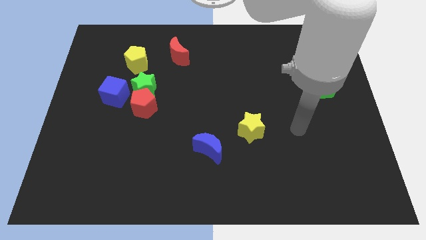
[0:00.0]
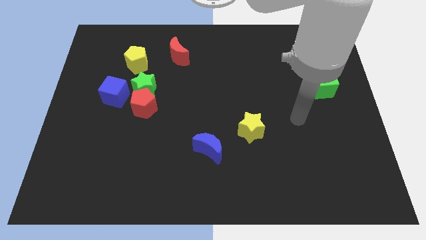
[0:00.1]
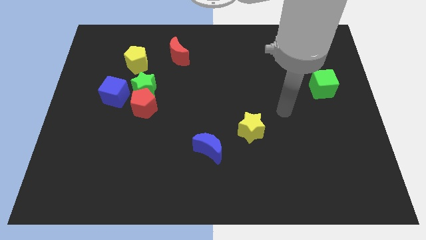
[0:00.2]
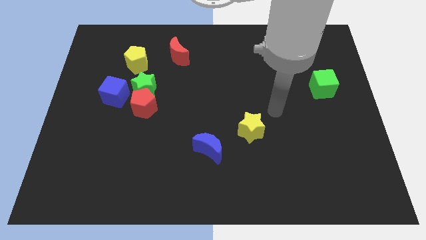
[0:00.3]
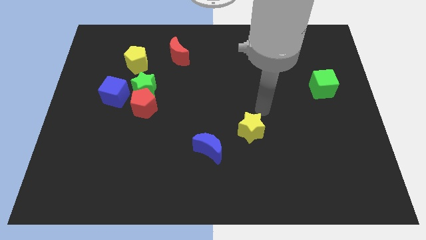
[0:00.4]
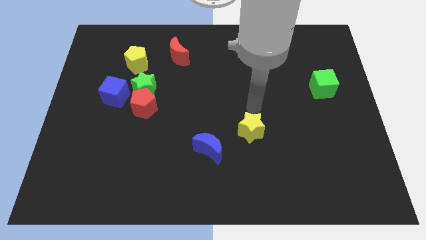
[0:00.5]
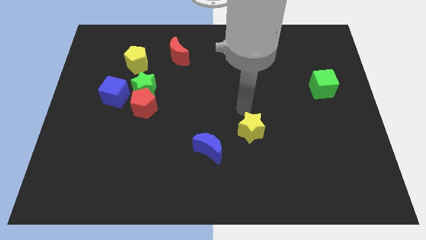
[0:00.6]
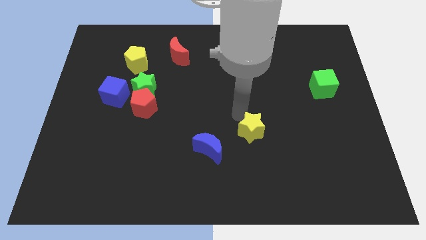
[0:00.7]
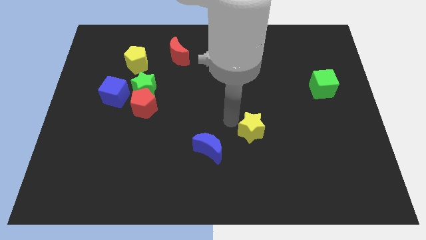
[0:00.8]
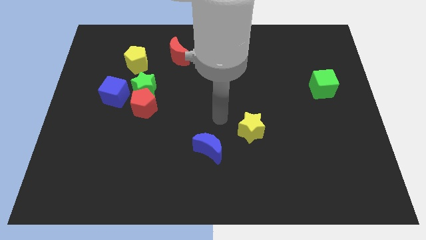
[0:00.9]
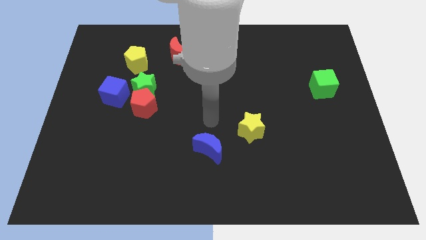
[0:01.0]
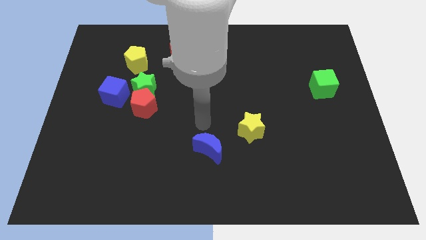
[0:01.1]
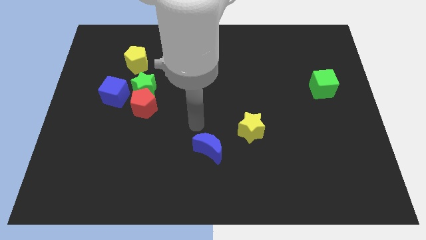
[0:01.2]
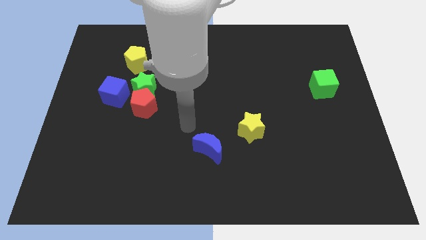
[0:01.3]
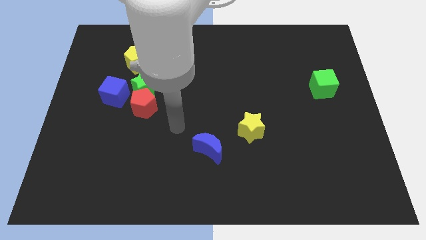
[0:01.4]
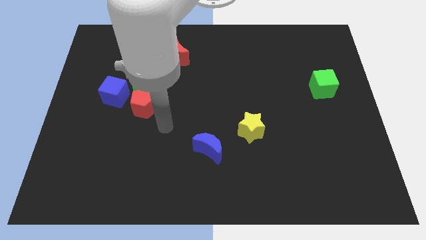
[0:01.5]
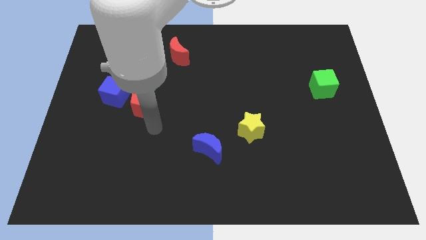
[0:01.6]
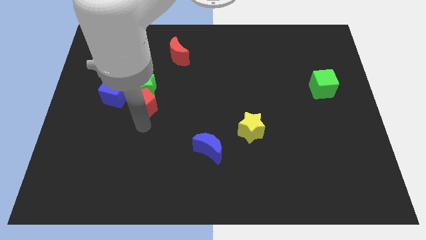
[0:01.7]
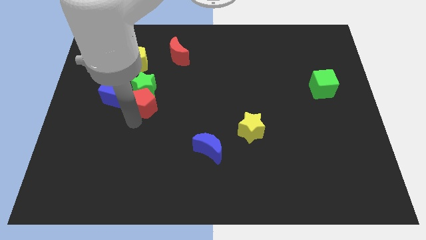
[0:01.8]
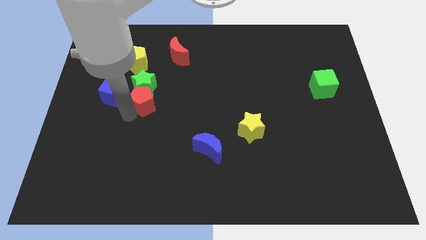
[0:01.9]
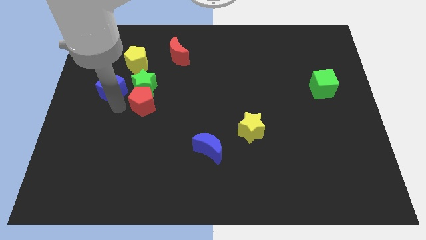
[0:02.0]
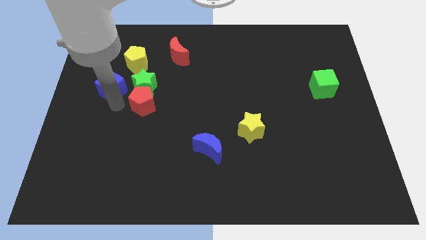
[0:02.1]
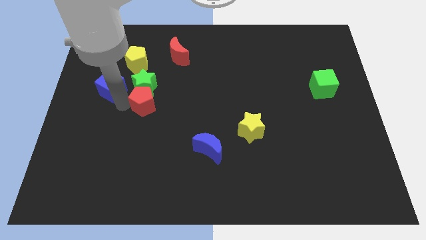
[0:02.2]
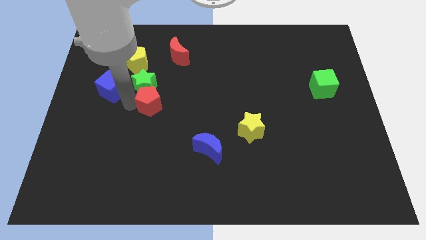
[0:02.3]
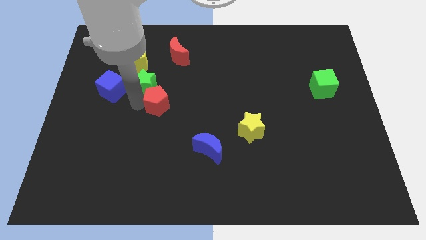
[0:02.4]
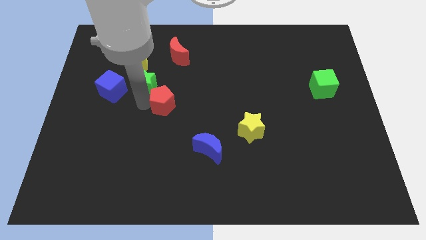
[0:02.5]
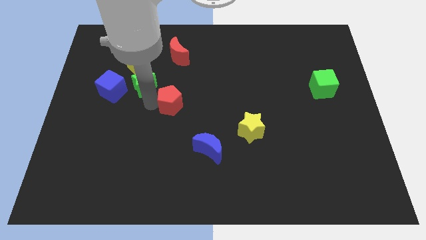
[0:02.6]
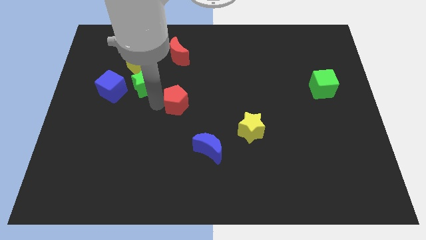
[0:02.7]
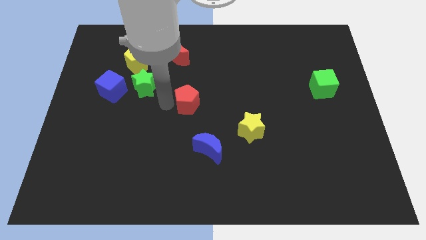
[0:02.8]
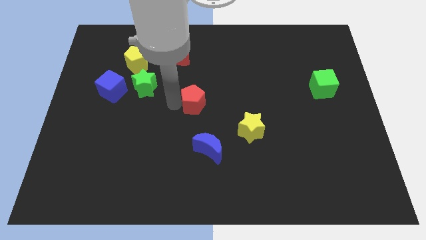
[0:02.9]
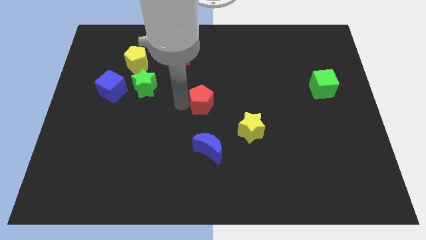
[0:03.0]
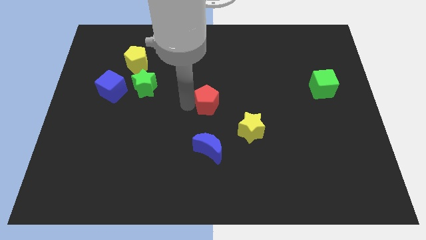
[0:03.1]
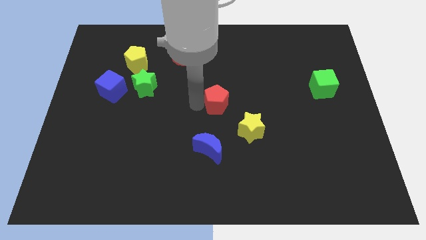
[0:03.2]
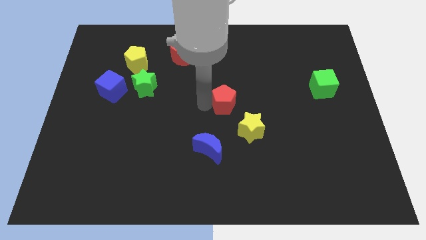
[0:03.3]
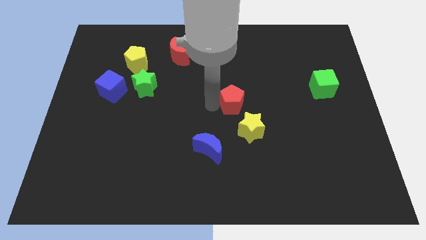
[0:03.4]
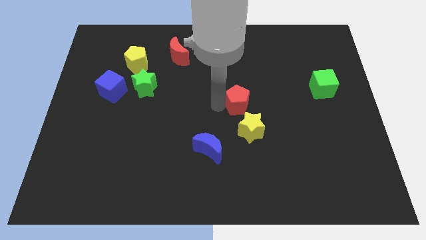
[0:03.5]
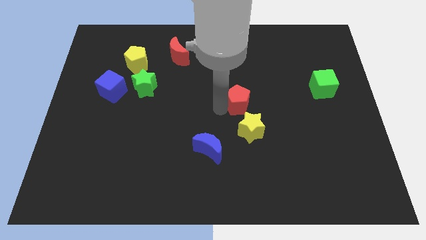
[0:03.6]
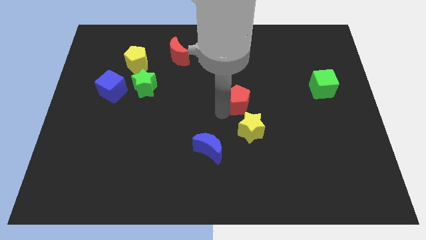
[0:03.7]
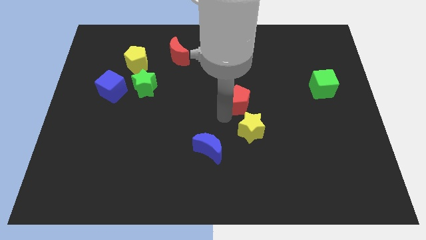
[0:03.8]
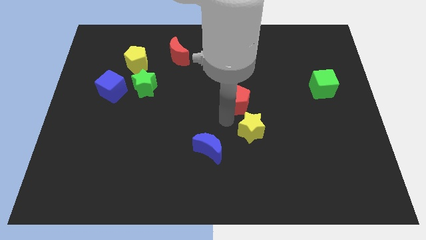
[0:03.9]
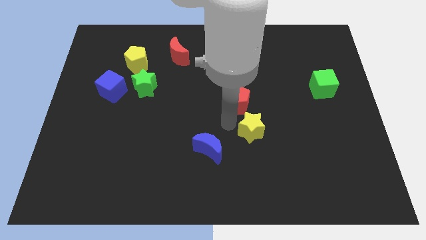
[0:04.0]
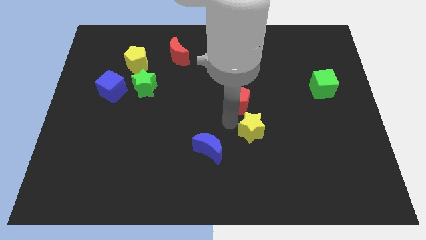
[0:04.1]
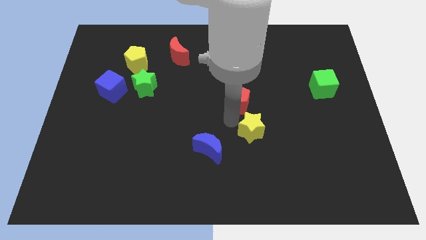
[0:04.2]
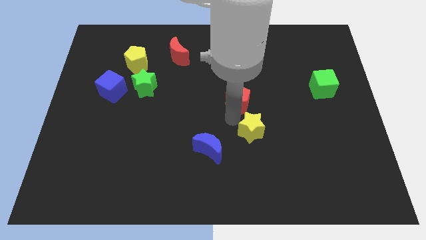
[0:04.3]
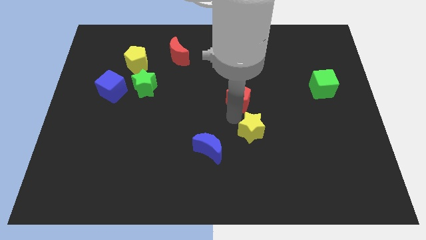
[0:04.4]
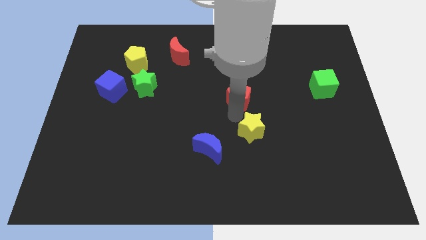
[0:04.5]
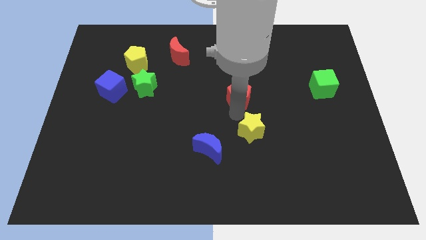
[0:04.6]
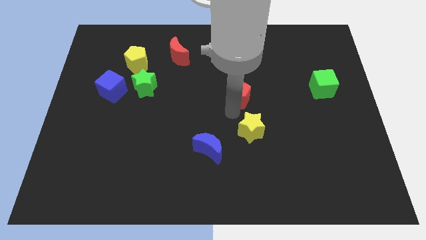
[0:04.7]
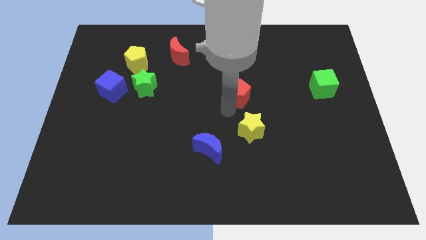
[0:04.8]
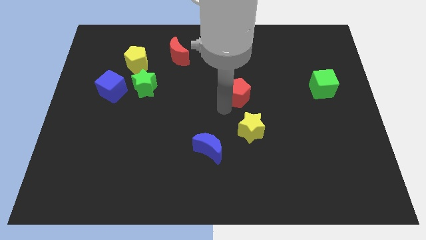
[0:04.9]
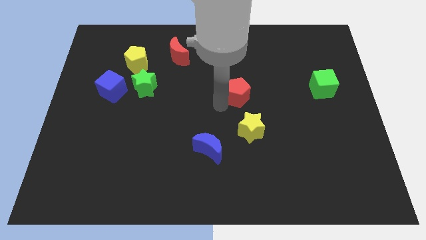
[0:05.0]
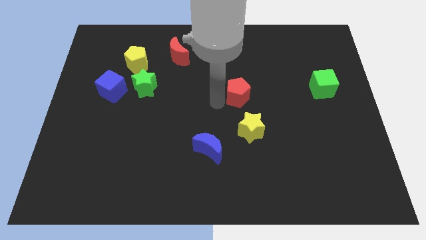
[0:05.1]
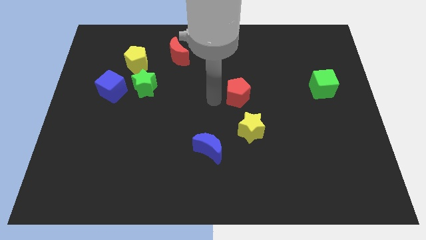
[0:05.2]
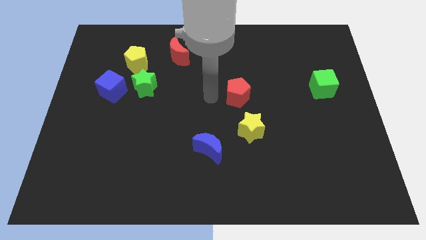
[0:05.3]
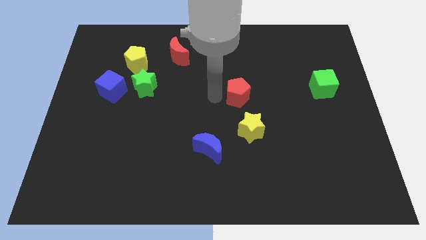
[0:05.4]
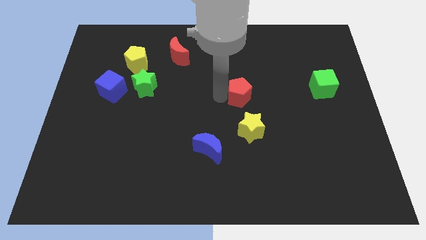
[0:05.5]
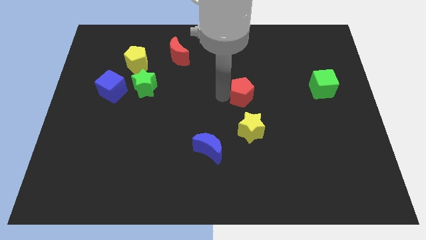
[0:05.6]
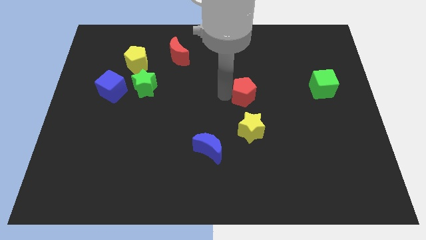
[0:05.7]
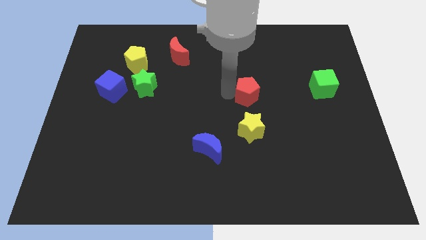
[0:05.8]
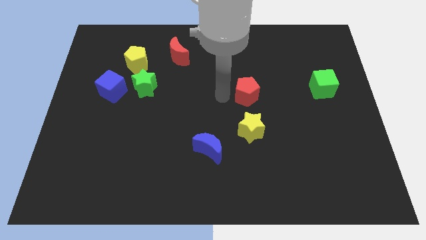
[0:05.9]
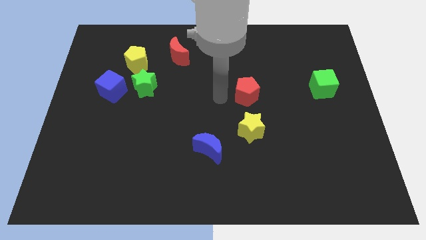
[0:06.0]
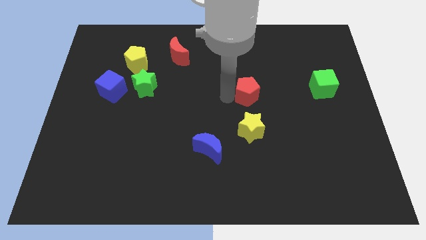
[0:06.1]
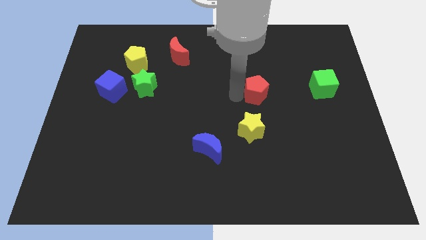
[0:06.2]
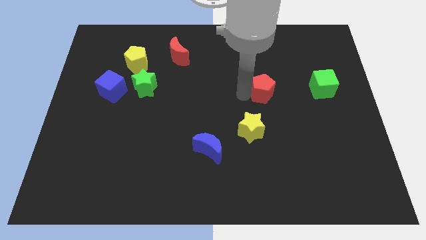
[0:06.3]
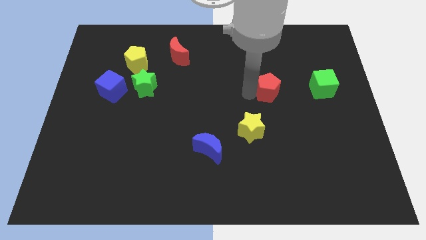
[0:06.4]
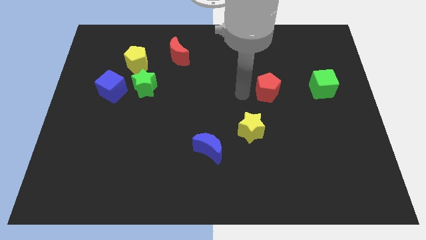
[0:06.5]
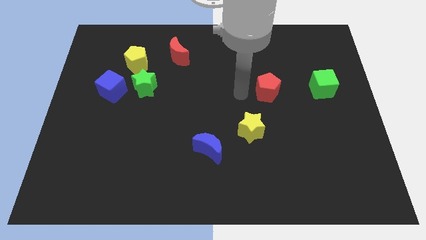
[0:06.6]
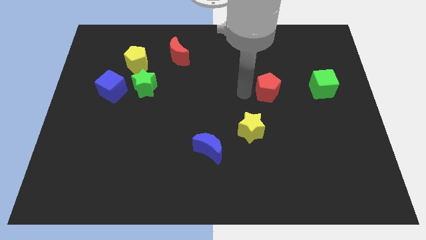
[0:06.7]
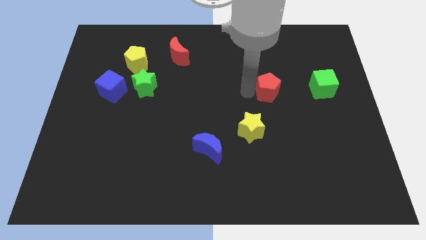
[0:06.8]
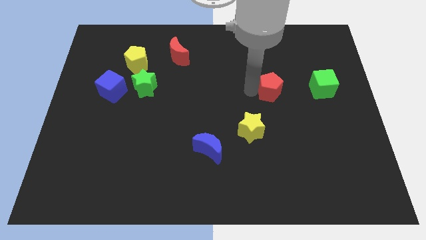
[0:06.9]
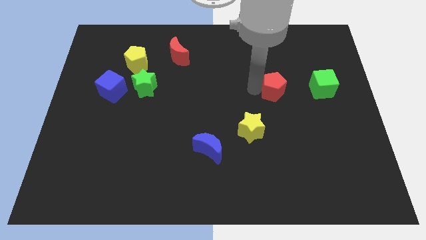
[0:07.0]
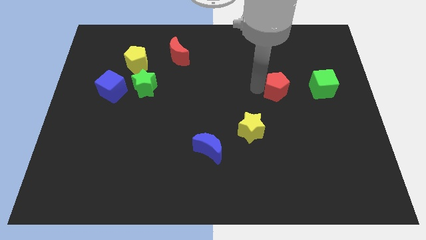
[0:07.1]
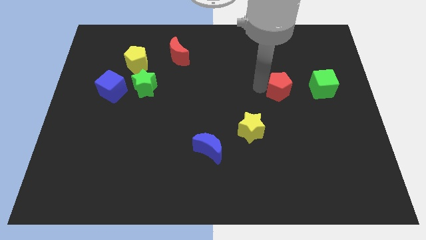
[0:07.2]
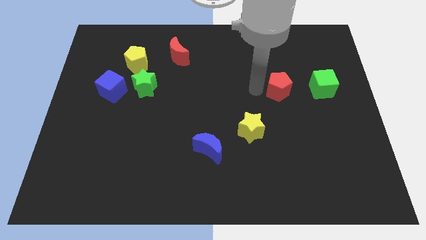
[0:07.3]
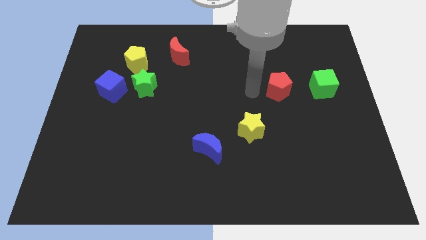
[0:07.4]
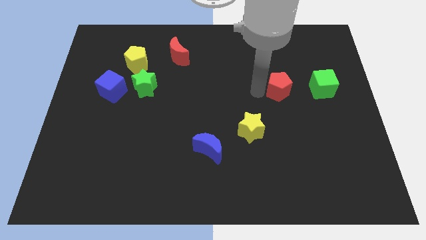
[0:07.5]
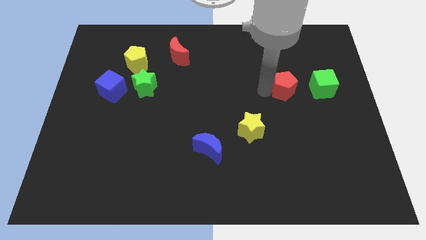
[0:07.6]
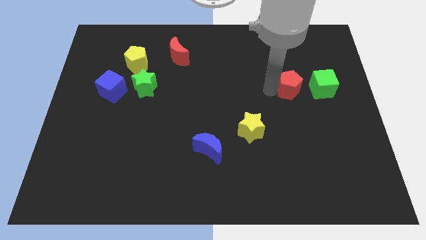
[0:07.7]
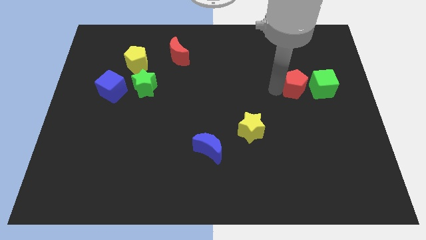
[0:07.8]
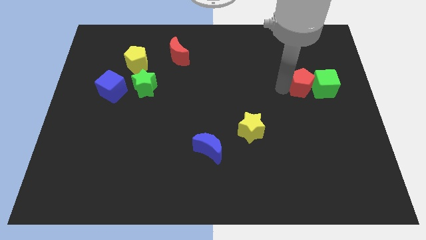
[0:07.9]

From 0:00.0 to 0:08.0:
move the red pentagon next to the green cube
